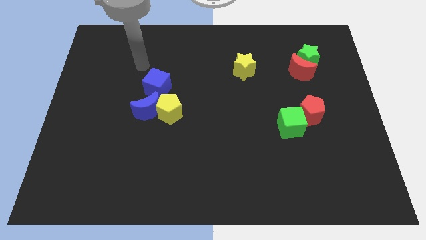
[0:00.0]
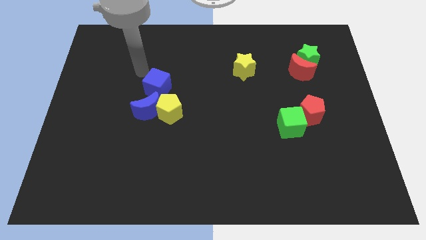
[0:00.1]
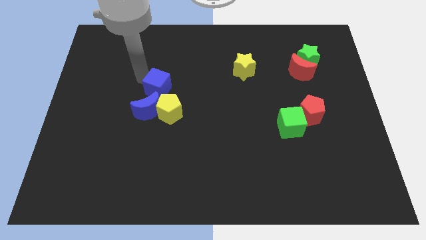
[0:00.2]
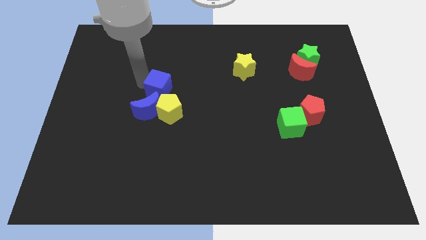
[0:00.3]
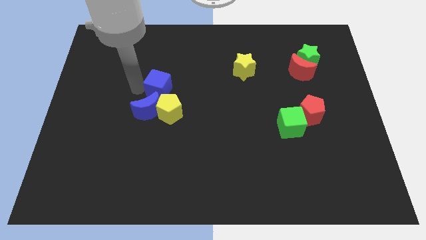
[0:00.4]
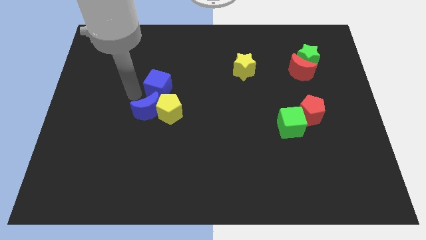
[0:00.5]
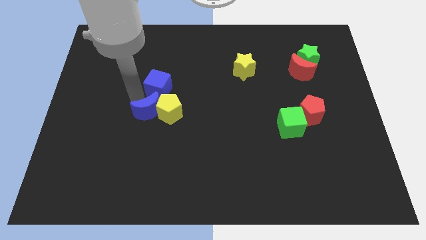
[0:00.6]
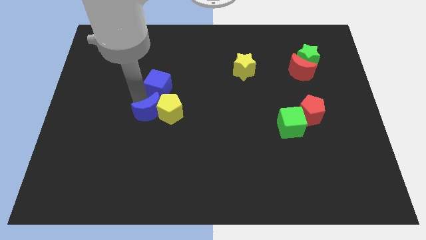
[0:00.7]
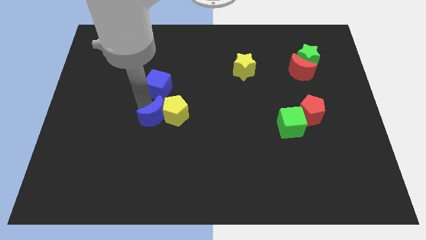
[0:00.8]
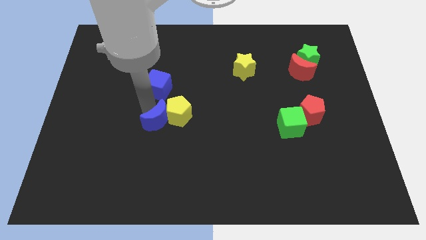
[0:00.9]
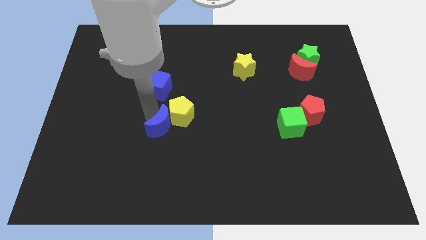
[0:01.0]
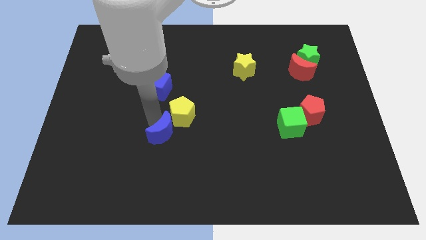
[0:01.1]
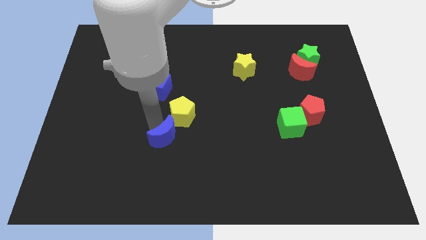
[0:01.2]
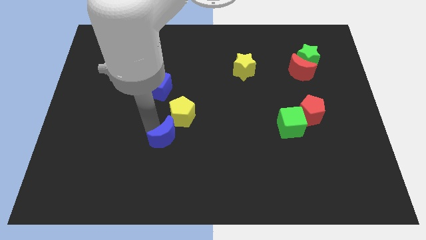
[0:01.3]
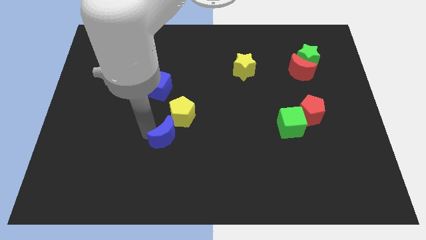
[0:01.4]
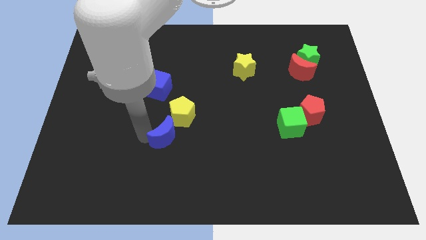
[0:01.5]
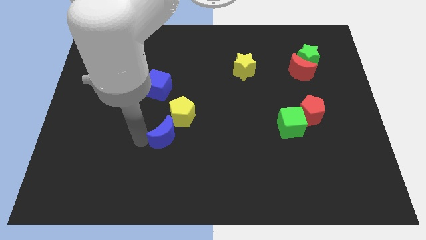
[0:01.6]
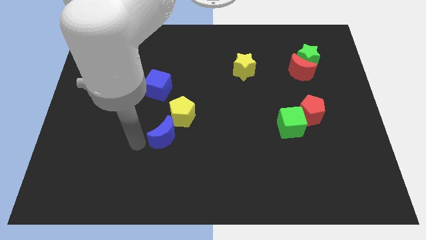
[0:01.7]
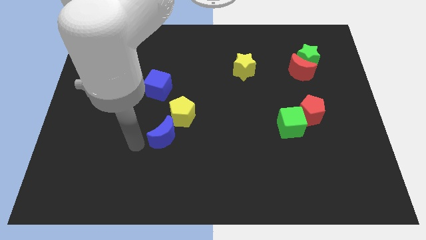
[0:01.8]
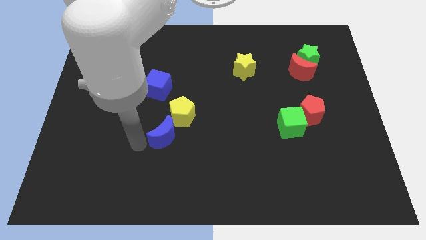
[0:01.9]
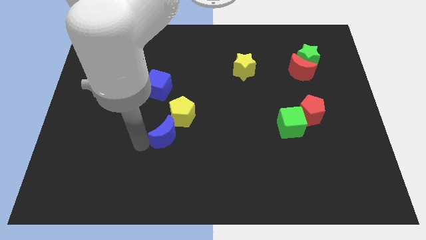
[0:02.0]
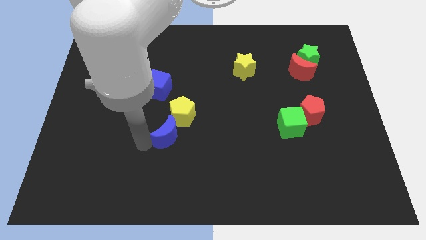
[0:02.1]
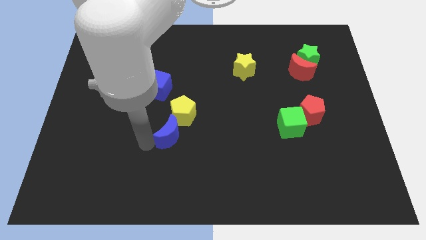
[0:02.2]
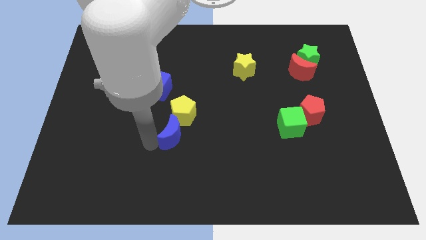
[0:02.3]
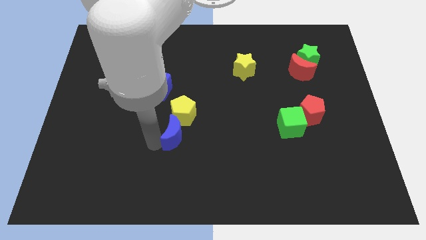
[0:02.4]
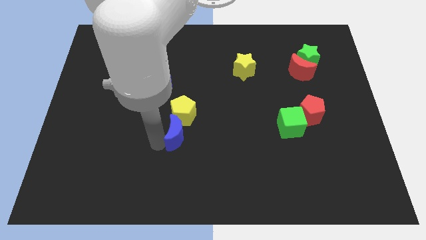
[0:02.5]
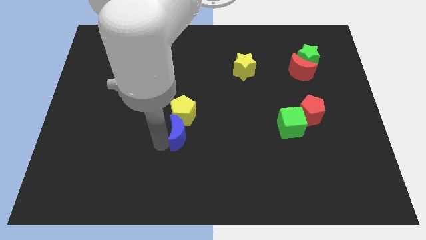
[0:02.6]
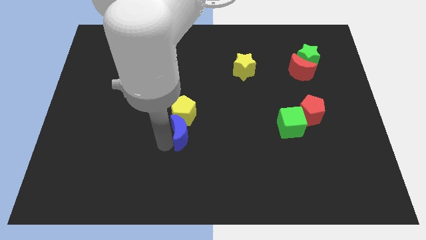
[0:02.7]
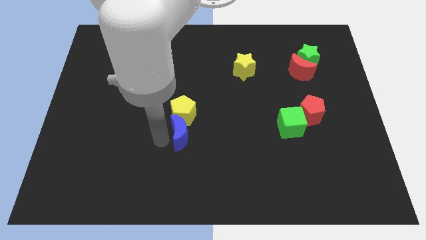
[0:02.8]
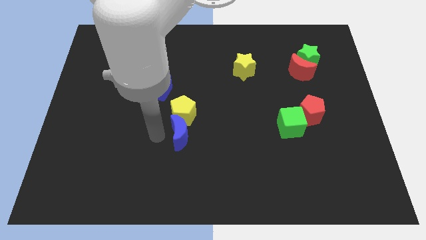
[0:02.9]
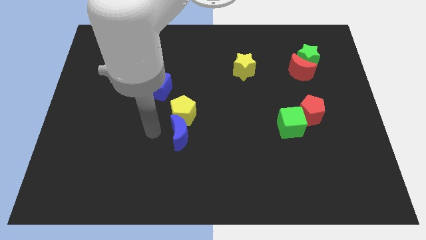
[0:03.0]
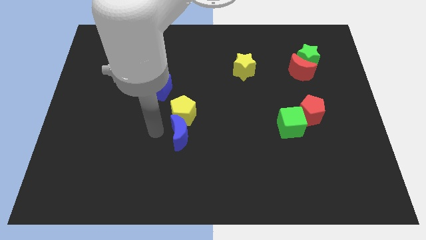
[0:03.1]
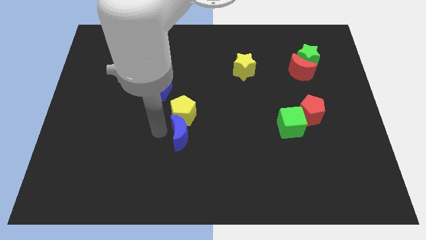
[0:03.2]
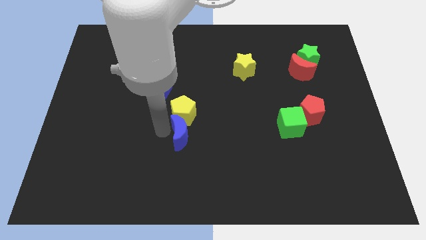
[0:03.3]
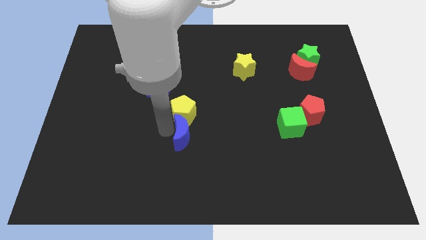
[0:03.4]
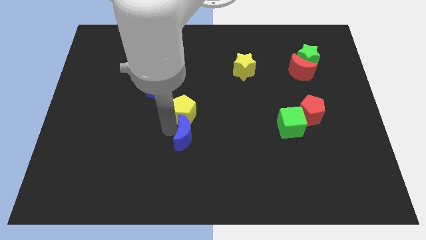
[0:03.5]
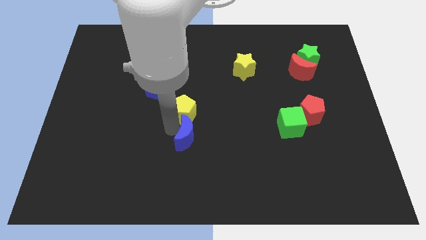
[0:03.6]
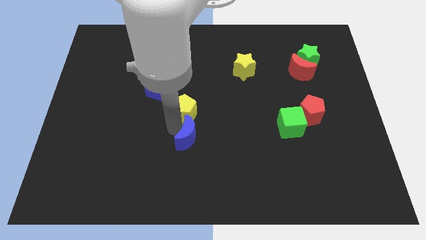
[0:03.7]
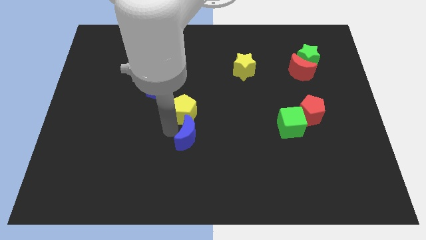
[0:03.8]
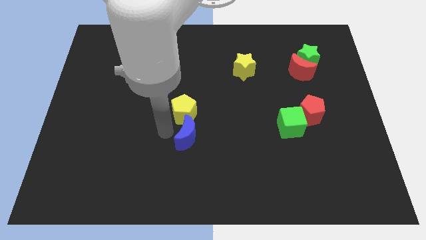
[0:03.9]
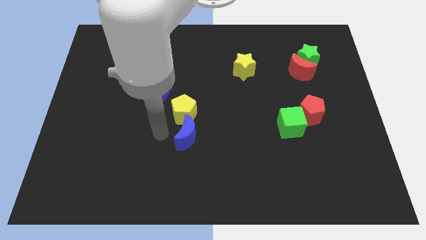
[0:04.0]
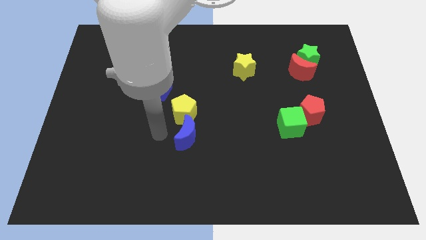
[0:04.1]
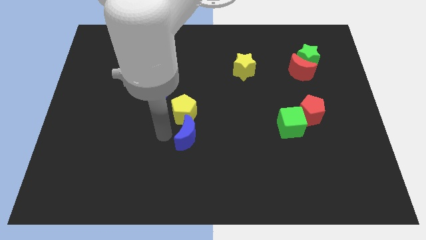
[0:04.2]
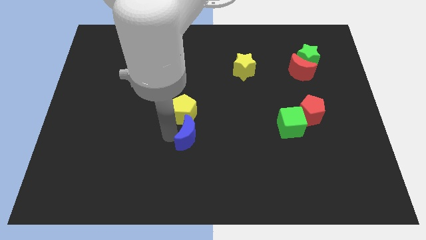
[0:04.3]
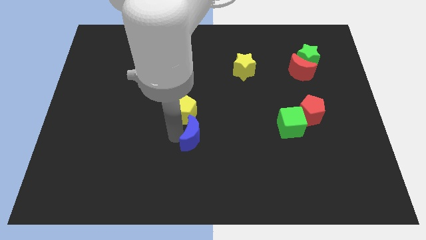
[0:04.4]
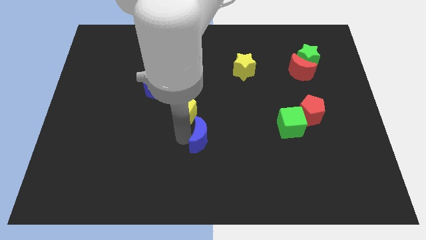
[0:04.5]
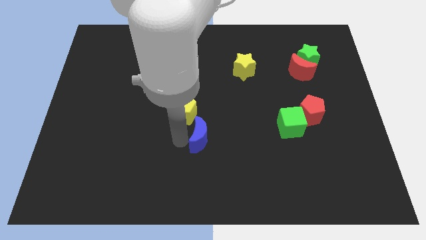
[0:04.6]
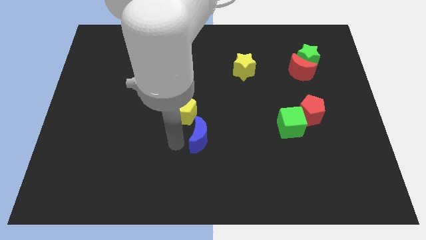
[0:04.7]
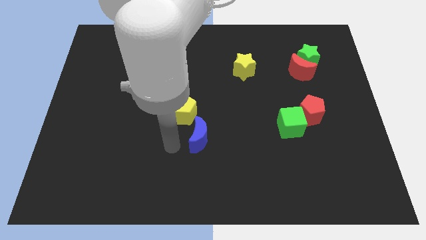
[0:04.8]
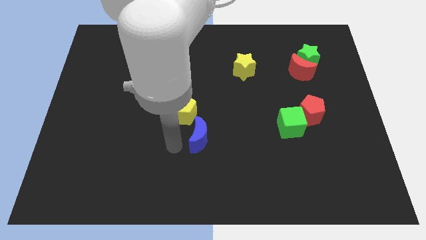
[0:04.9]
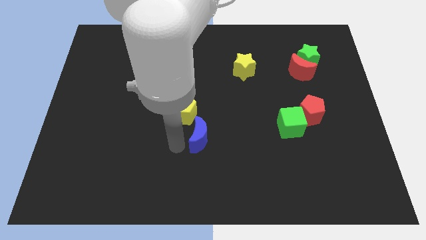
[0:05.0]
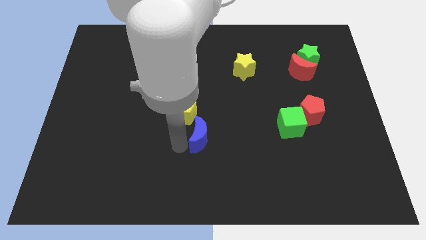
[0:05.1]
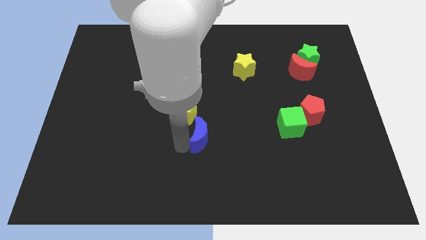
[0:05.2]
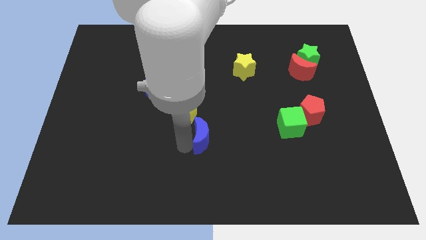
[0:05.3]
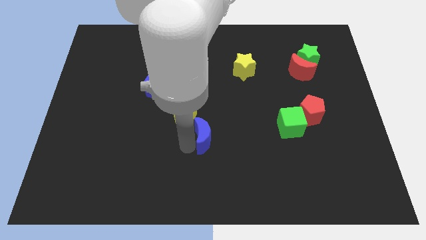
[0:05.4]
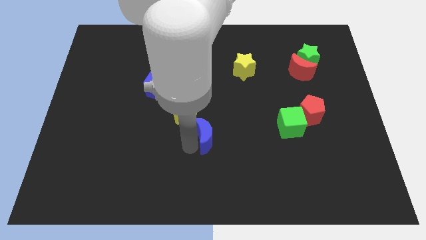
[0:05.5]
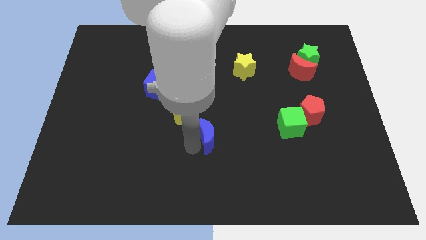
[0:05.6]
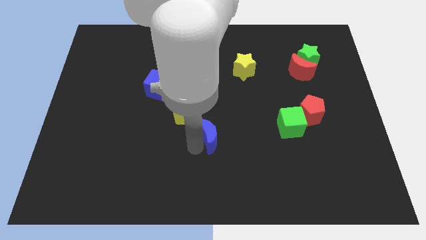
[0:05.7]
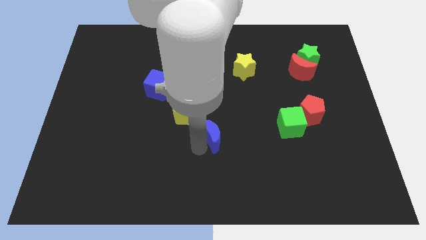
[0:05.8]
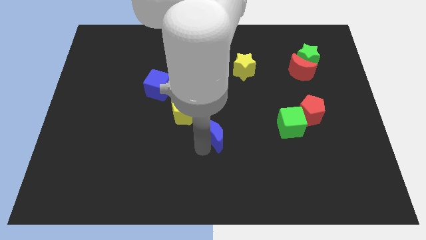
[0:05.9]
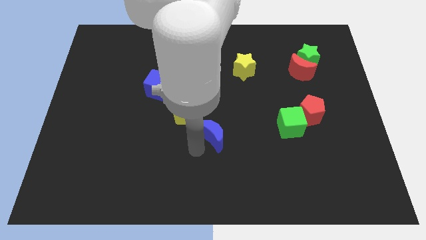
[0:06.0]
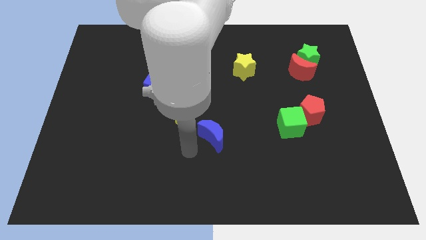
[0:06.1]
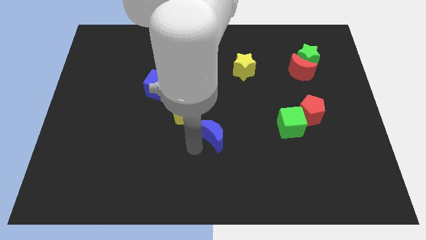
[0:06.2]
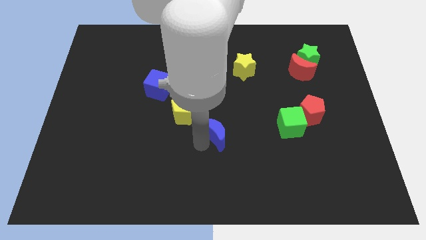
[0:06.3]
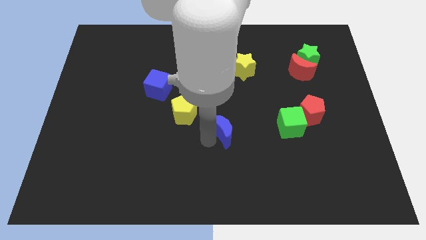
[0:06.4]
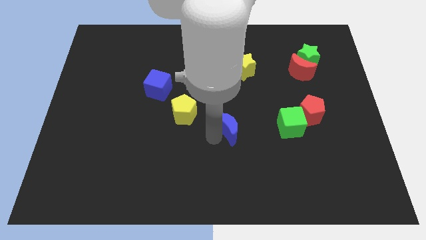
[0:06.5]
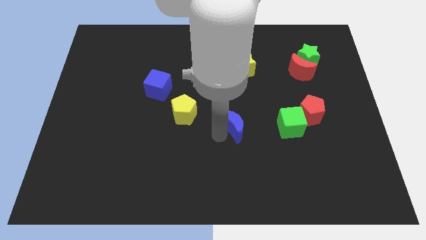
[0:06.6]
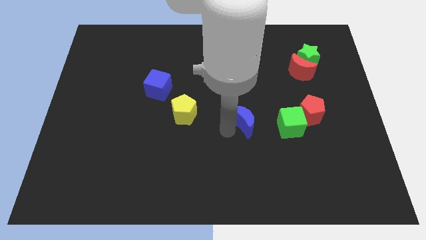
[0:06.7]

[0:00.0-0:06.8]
push the blue moon to the right

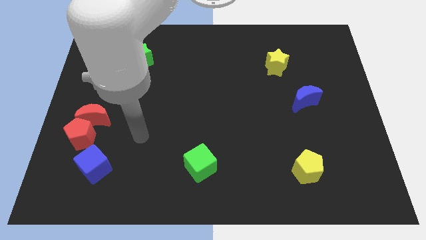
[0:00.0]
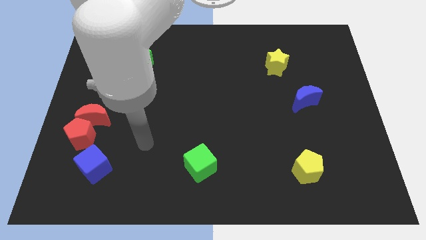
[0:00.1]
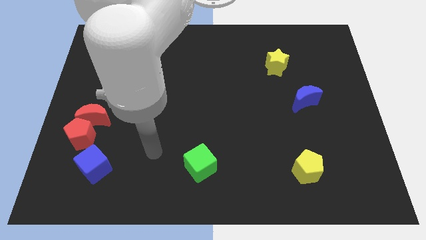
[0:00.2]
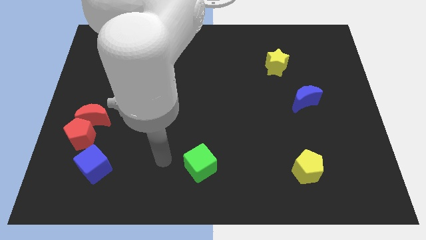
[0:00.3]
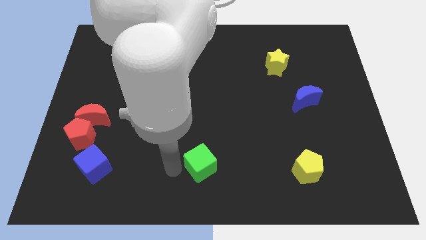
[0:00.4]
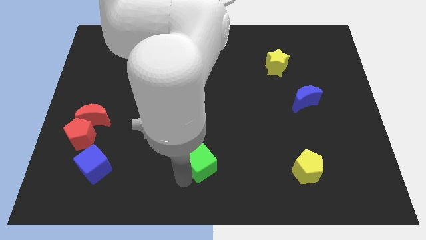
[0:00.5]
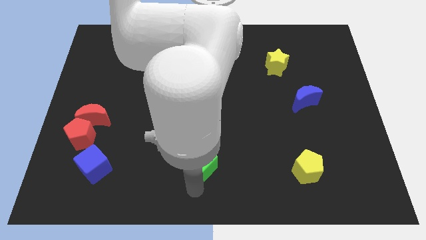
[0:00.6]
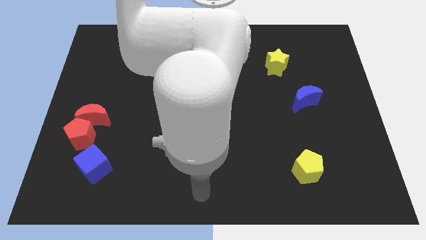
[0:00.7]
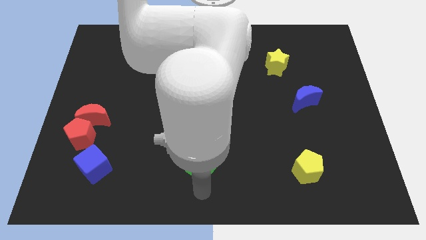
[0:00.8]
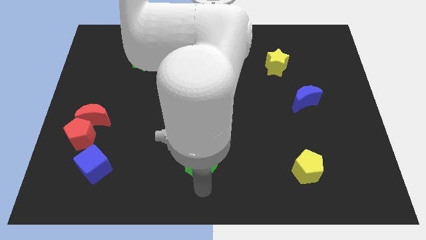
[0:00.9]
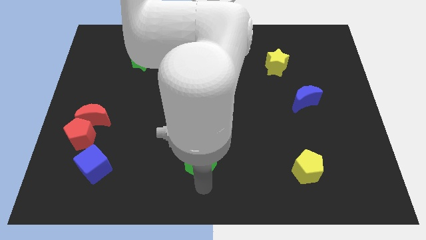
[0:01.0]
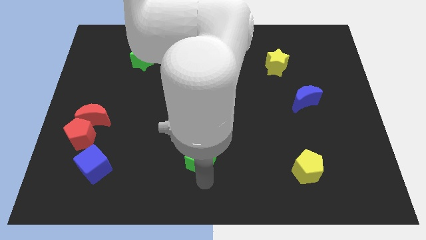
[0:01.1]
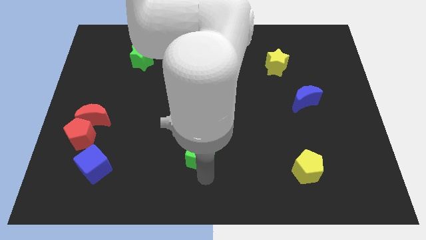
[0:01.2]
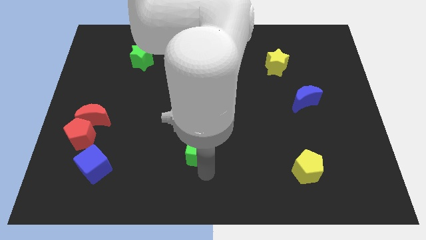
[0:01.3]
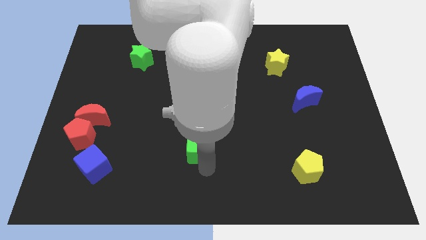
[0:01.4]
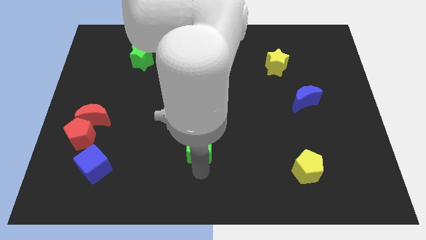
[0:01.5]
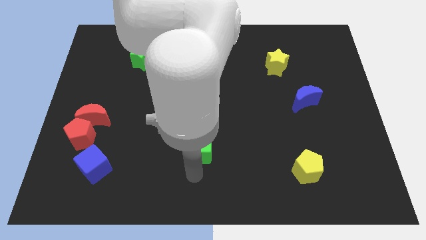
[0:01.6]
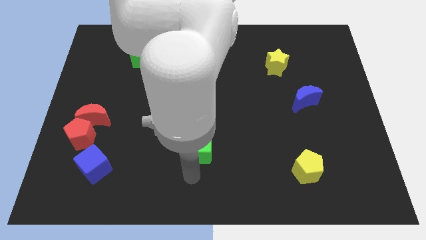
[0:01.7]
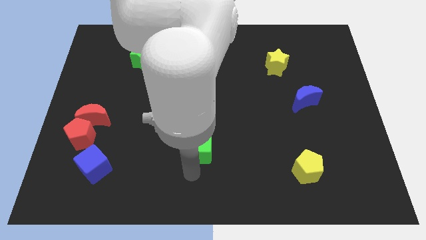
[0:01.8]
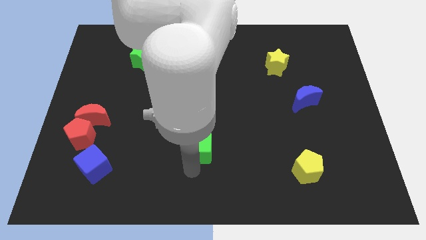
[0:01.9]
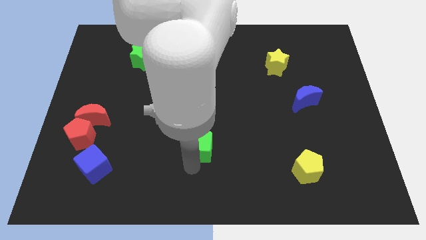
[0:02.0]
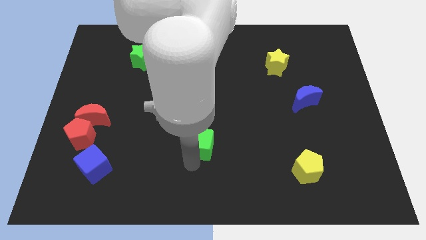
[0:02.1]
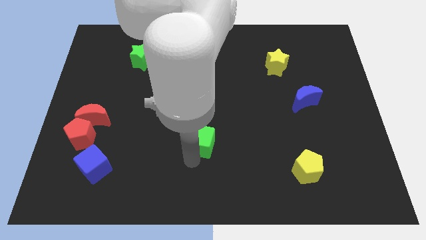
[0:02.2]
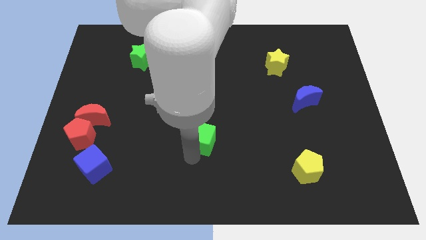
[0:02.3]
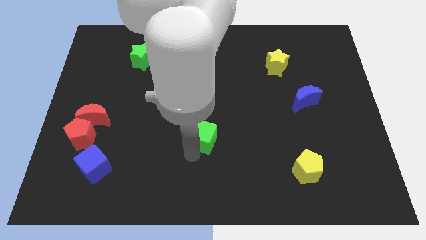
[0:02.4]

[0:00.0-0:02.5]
slightly move the green cube upwards
